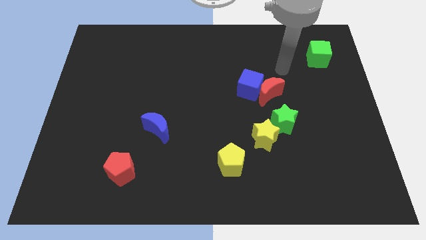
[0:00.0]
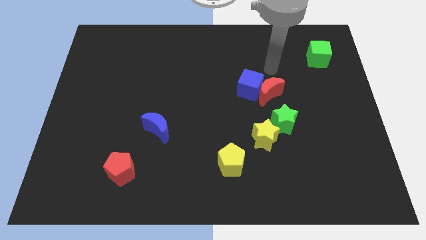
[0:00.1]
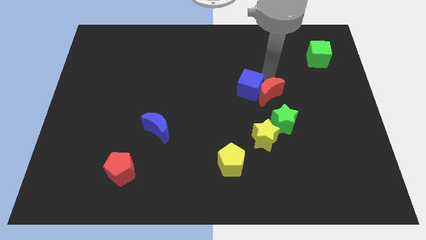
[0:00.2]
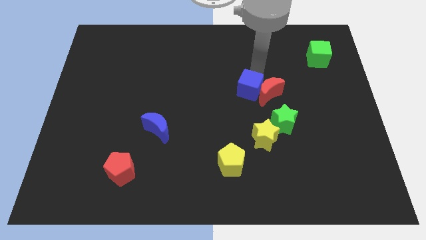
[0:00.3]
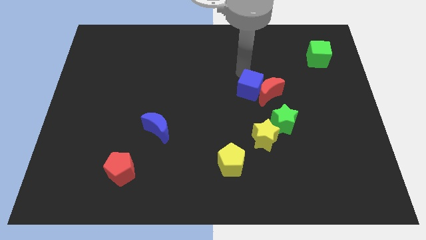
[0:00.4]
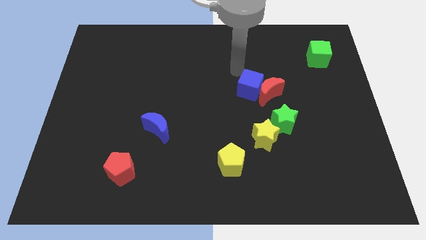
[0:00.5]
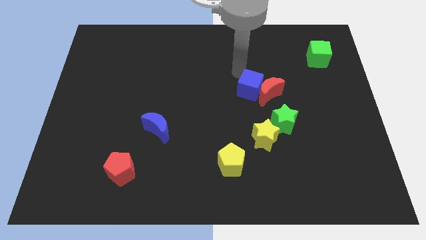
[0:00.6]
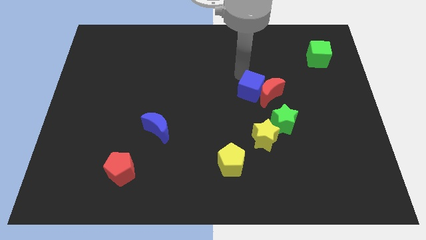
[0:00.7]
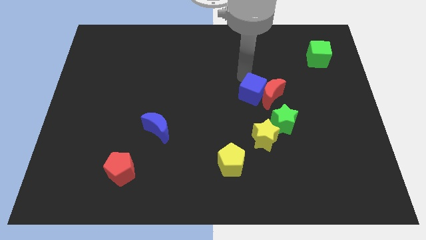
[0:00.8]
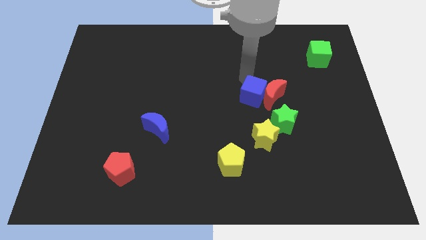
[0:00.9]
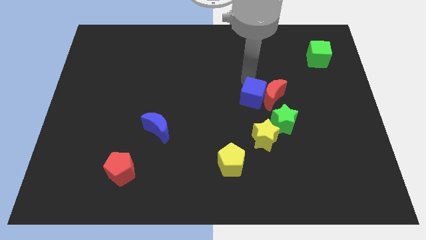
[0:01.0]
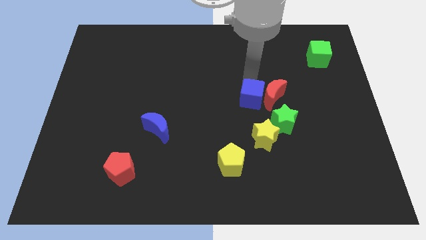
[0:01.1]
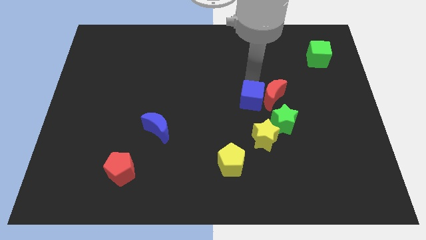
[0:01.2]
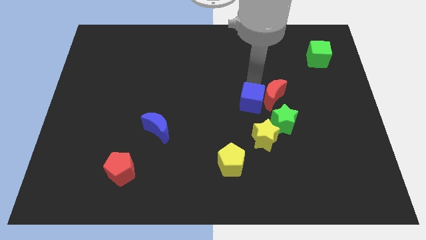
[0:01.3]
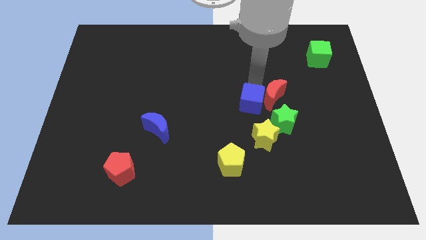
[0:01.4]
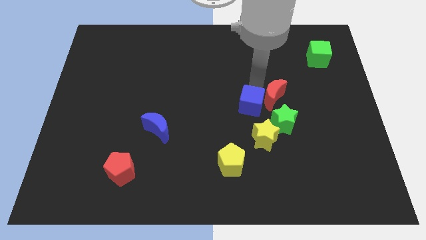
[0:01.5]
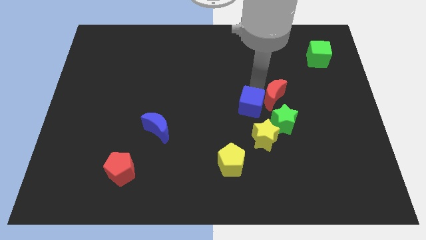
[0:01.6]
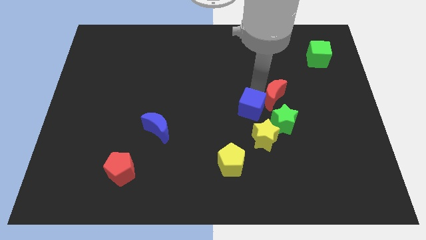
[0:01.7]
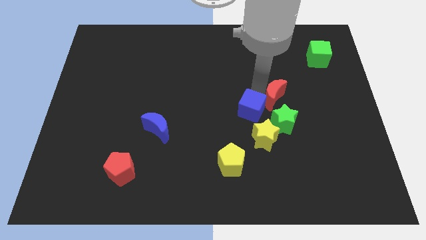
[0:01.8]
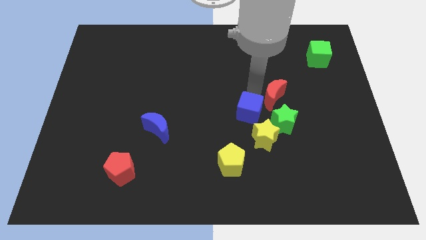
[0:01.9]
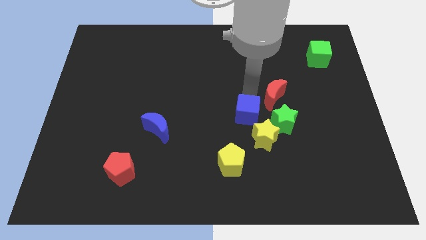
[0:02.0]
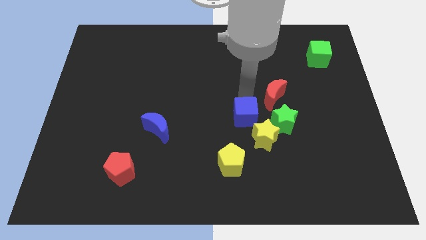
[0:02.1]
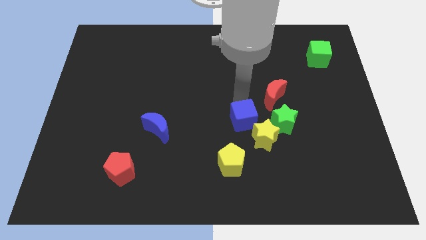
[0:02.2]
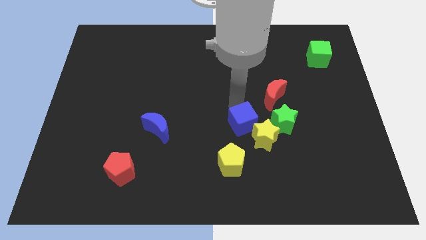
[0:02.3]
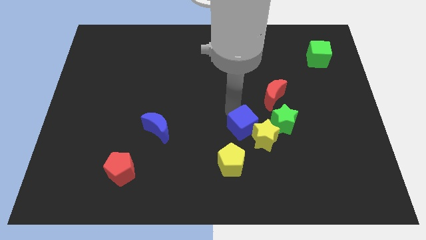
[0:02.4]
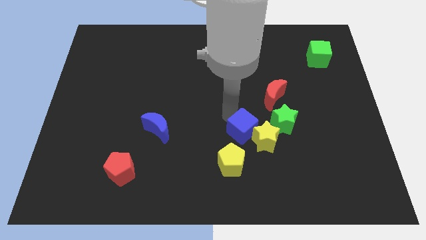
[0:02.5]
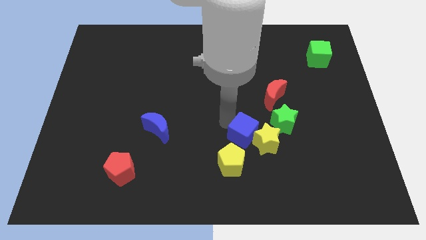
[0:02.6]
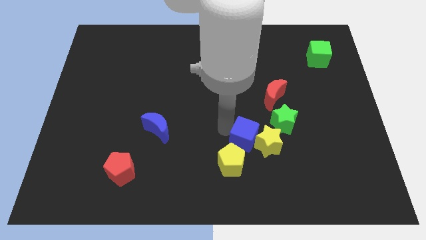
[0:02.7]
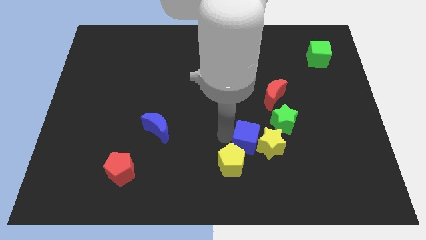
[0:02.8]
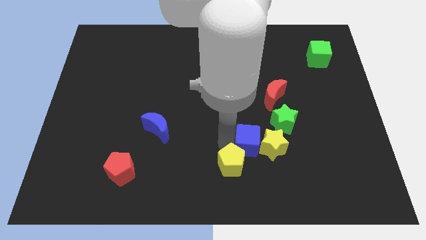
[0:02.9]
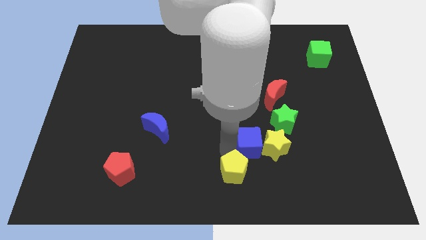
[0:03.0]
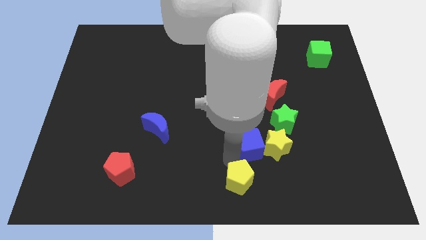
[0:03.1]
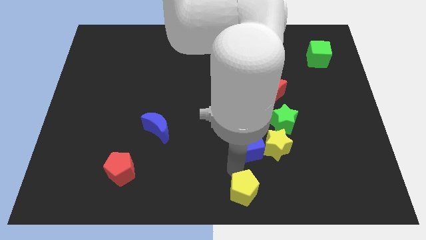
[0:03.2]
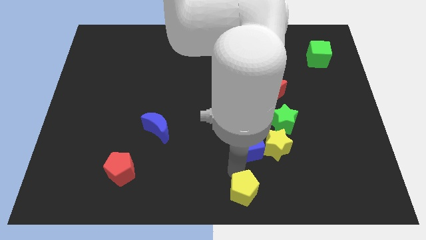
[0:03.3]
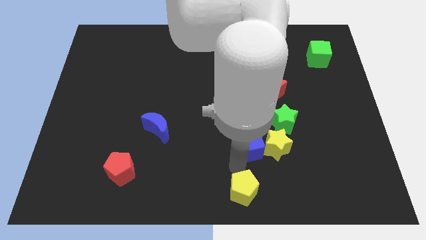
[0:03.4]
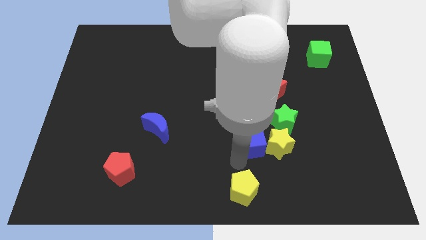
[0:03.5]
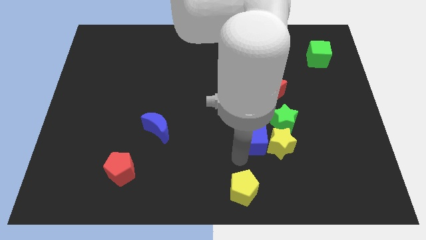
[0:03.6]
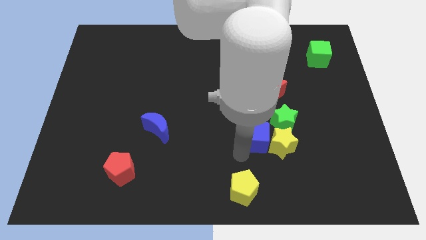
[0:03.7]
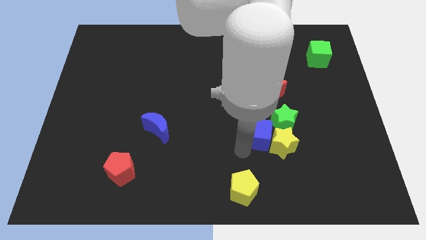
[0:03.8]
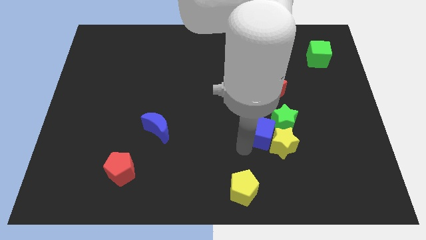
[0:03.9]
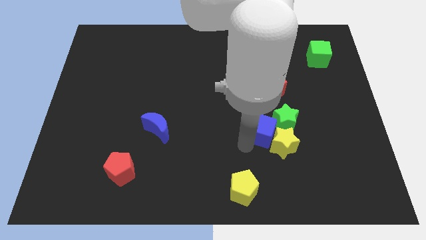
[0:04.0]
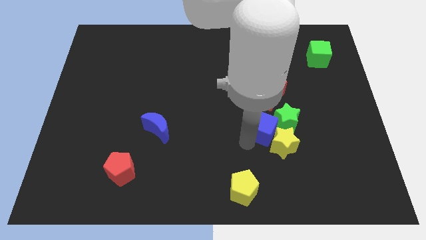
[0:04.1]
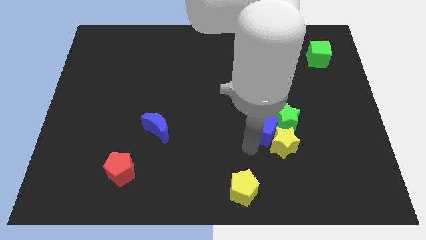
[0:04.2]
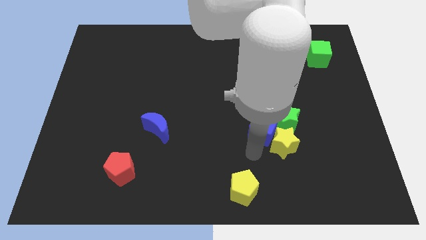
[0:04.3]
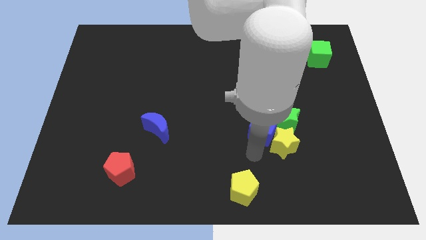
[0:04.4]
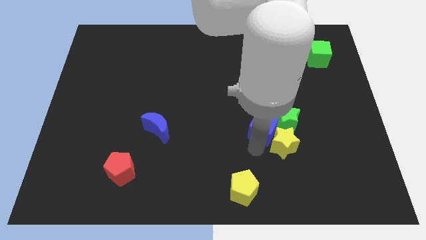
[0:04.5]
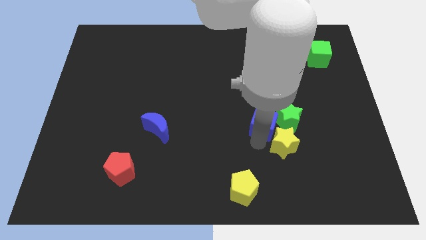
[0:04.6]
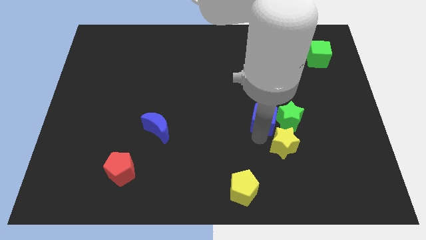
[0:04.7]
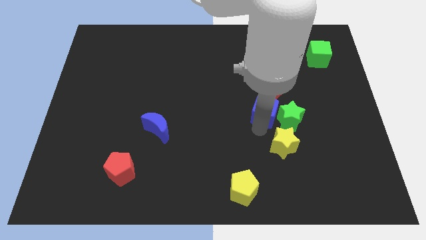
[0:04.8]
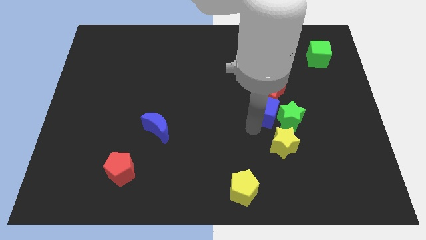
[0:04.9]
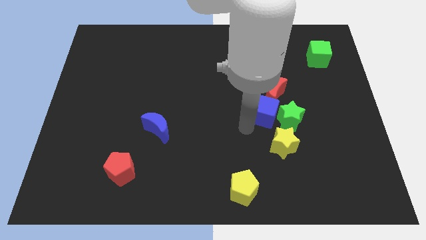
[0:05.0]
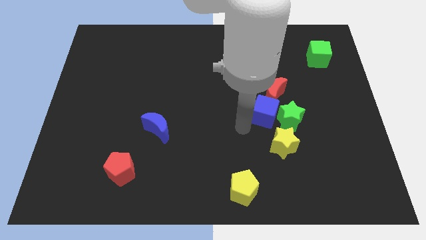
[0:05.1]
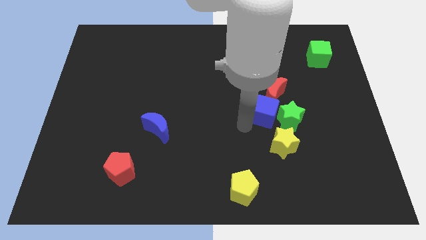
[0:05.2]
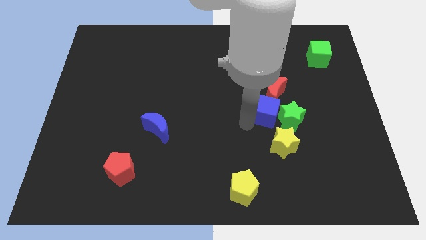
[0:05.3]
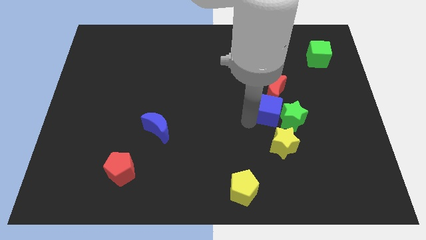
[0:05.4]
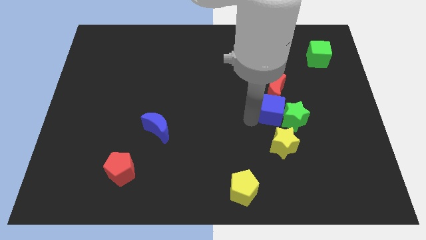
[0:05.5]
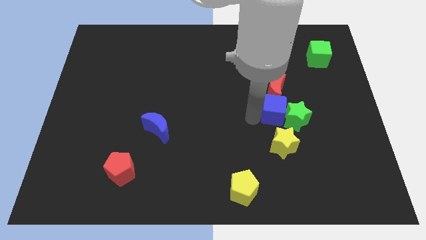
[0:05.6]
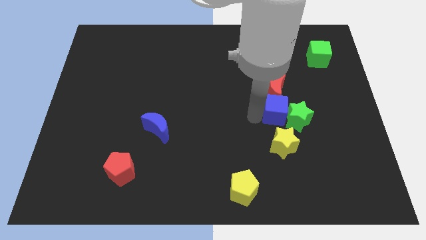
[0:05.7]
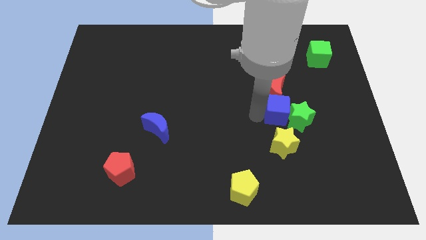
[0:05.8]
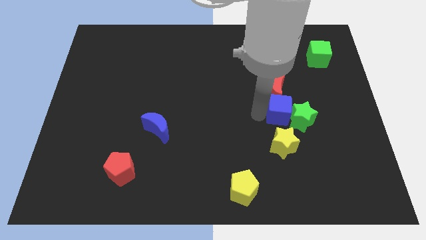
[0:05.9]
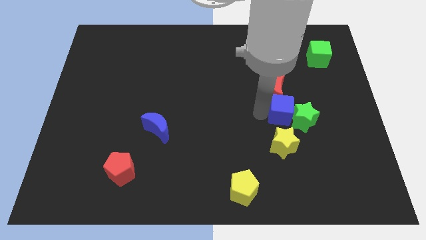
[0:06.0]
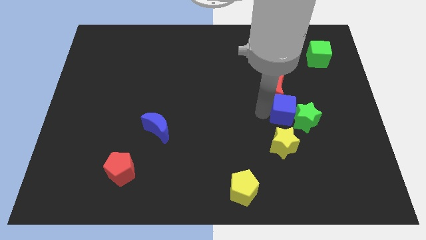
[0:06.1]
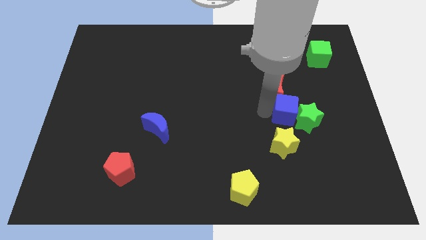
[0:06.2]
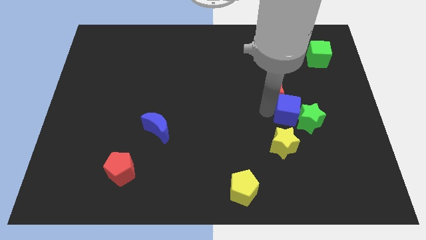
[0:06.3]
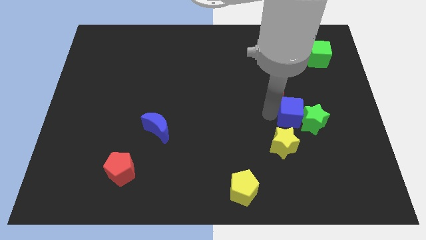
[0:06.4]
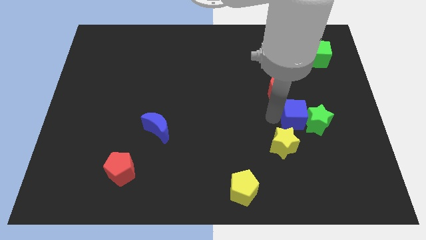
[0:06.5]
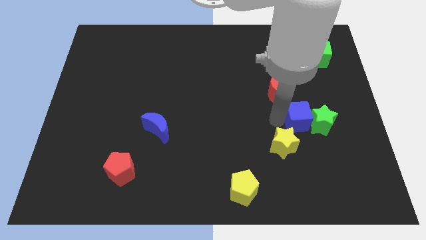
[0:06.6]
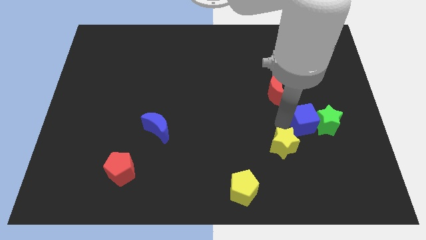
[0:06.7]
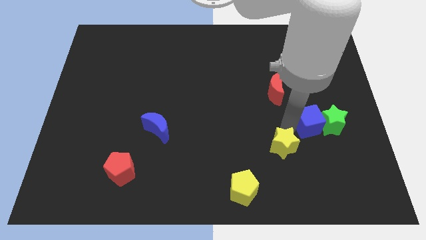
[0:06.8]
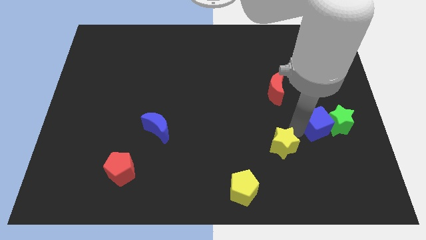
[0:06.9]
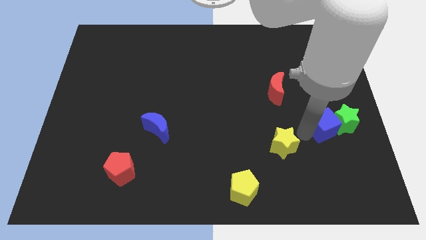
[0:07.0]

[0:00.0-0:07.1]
push the blue cube right of the yellow star

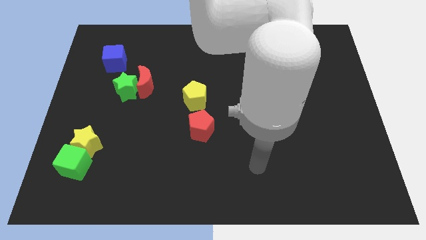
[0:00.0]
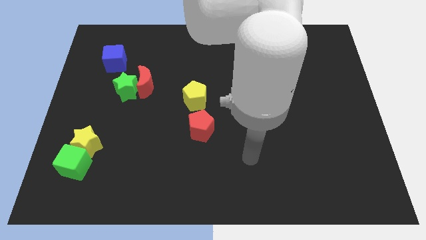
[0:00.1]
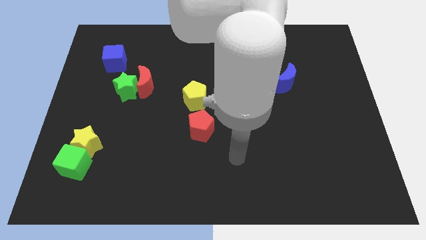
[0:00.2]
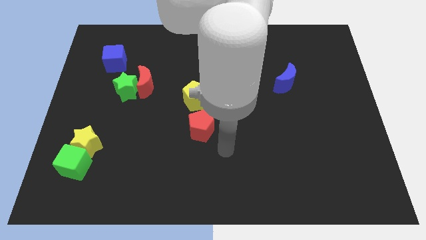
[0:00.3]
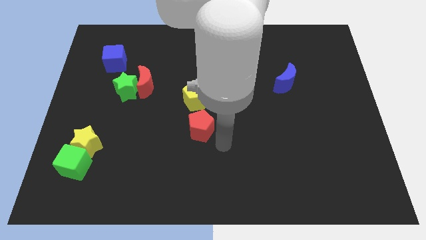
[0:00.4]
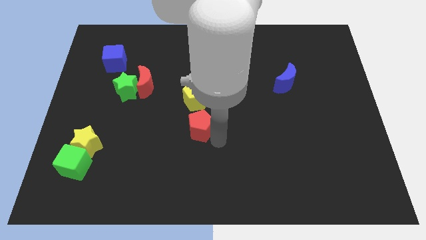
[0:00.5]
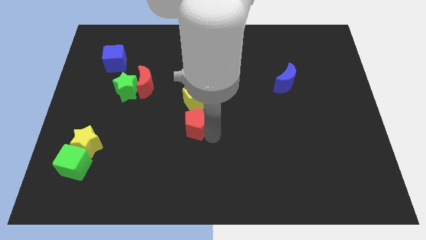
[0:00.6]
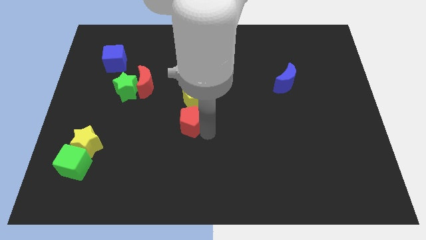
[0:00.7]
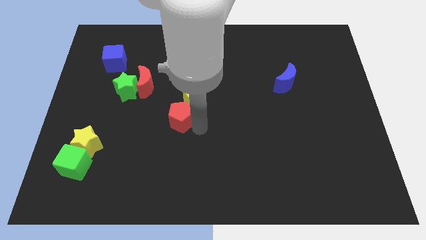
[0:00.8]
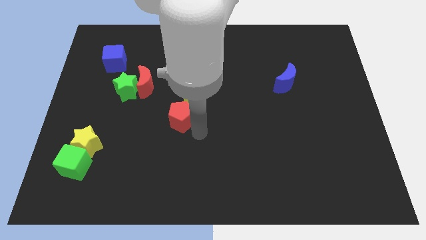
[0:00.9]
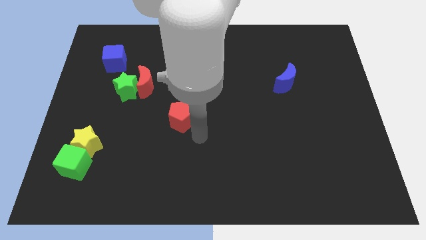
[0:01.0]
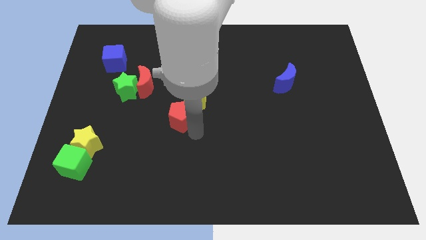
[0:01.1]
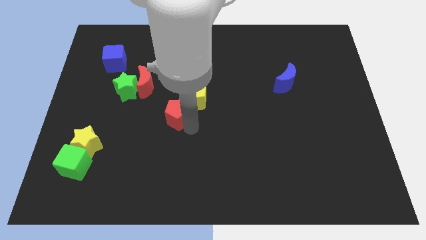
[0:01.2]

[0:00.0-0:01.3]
slide the red pentagon diagonally down and to the right of the red moon
